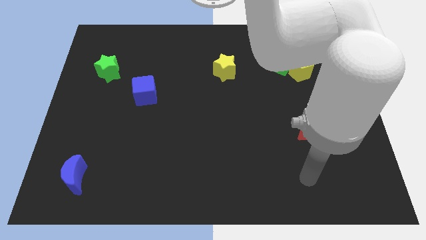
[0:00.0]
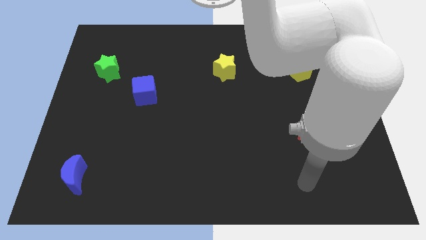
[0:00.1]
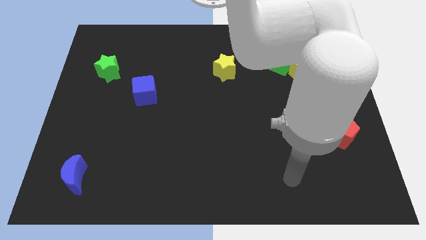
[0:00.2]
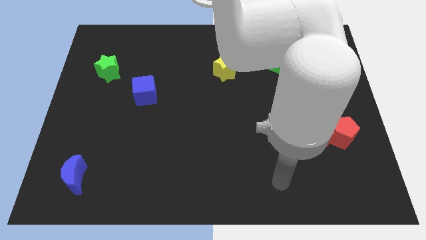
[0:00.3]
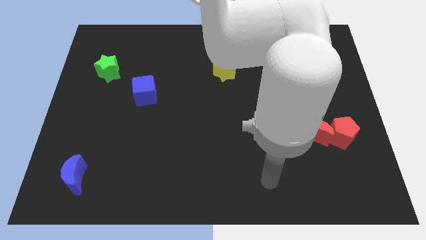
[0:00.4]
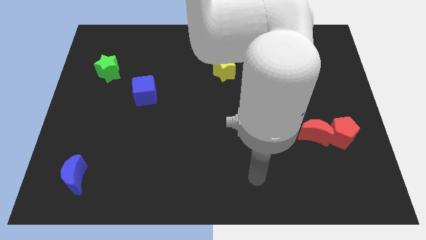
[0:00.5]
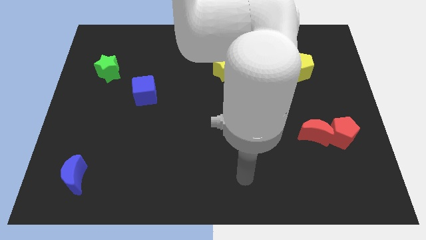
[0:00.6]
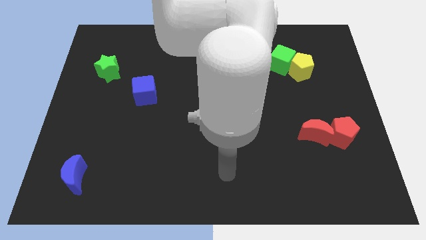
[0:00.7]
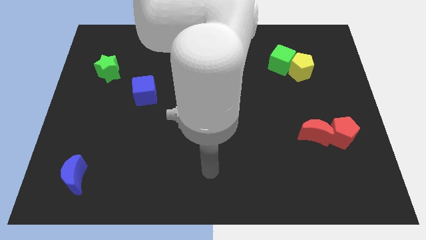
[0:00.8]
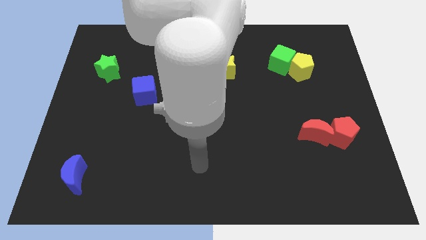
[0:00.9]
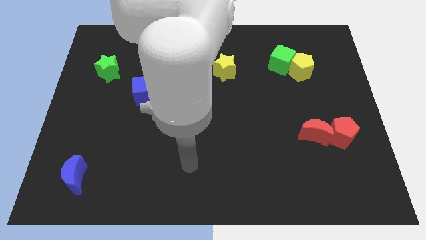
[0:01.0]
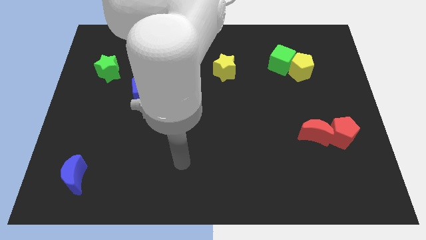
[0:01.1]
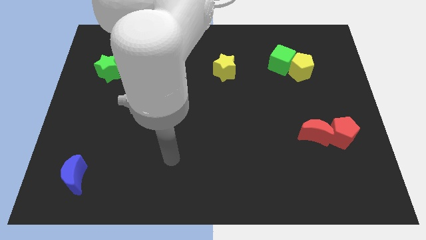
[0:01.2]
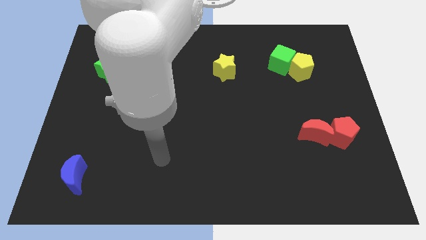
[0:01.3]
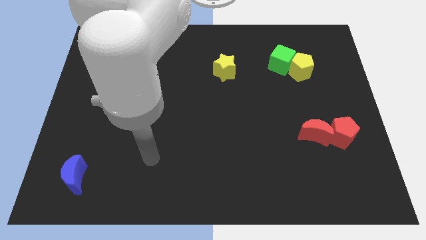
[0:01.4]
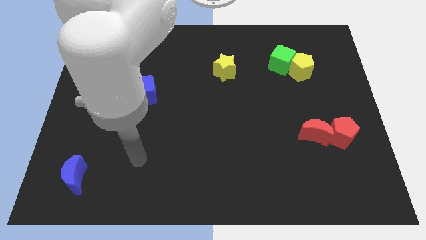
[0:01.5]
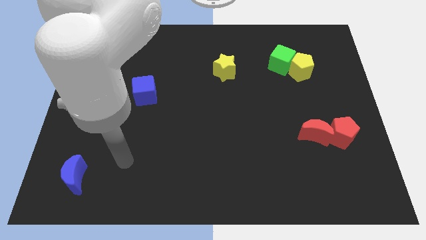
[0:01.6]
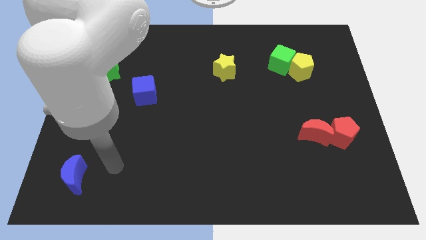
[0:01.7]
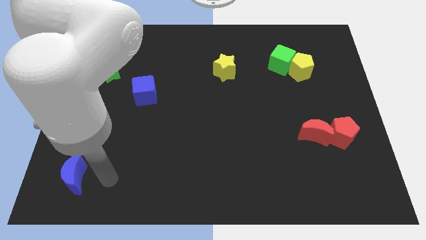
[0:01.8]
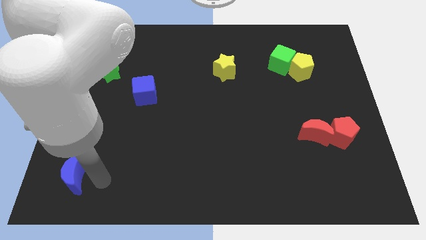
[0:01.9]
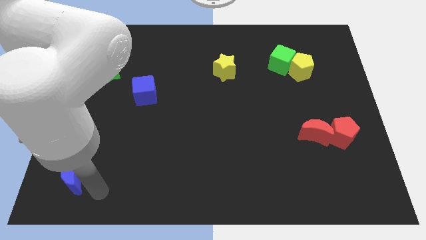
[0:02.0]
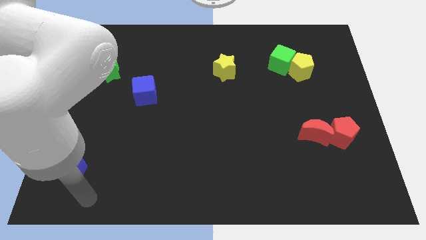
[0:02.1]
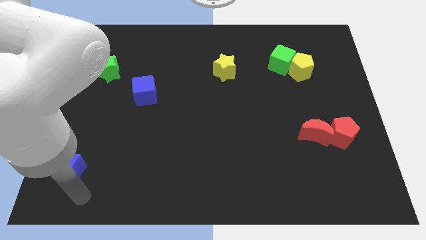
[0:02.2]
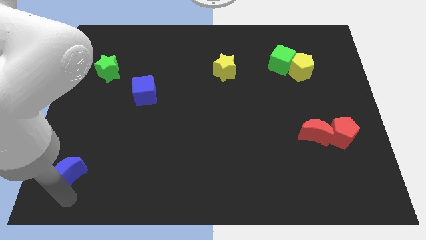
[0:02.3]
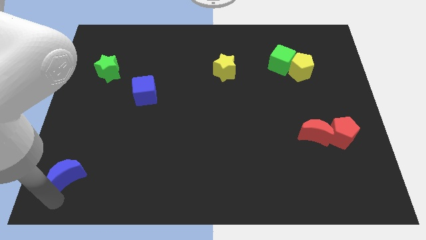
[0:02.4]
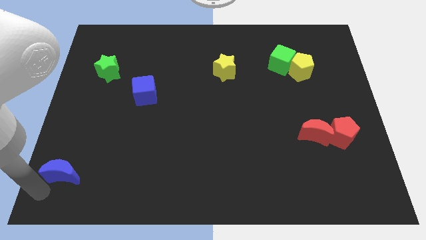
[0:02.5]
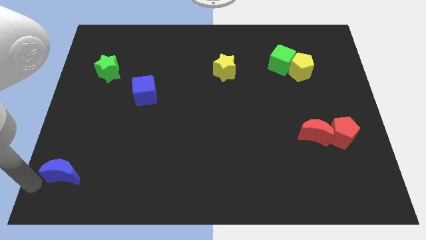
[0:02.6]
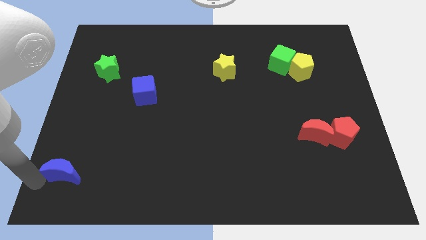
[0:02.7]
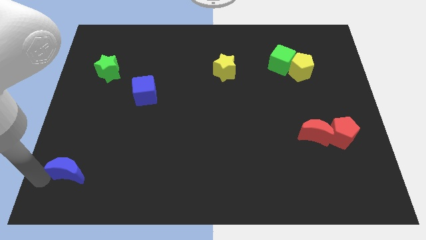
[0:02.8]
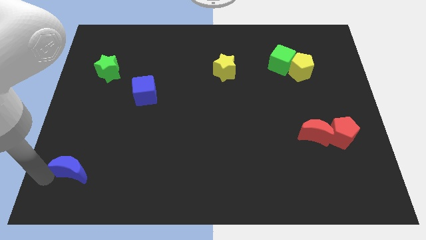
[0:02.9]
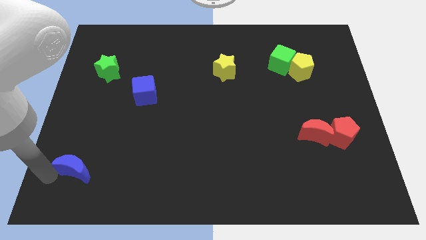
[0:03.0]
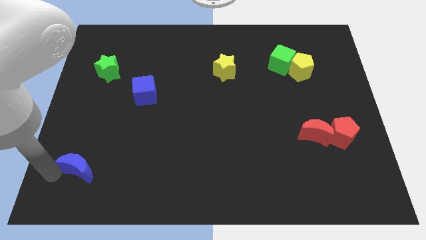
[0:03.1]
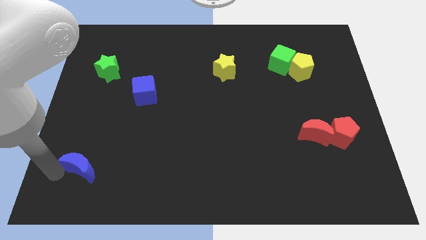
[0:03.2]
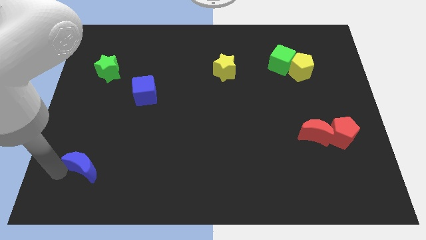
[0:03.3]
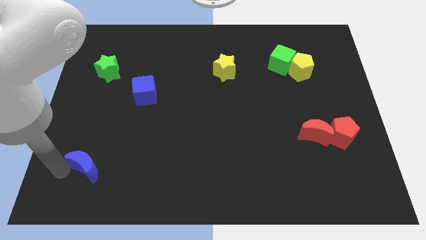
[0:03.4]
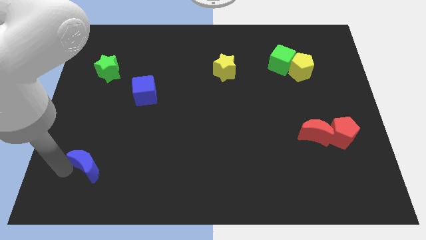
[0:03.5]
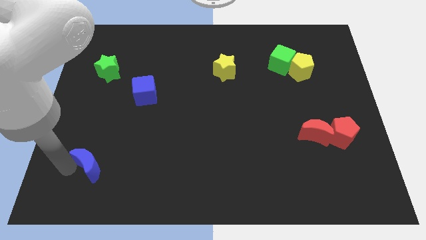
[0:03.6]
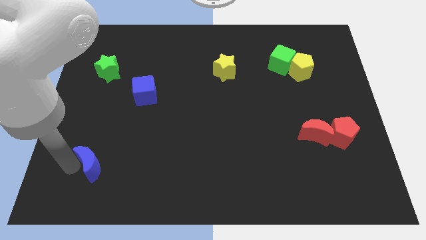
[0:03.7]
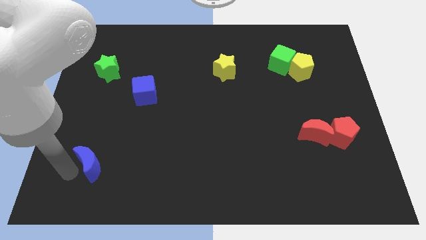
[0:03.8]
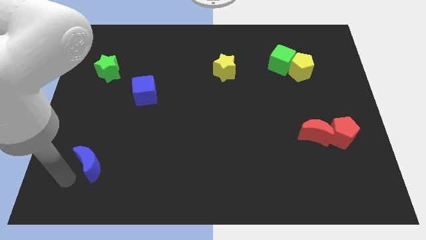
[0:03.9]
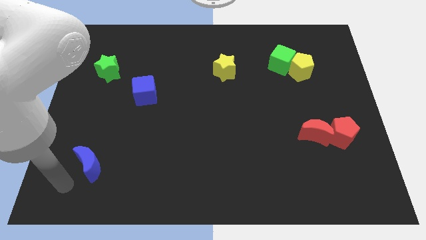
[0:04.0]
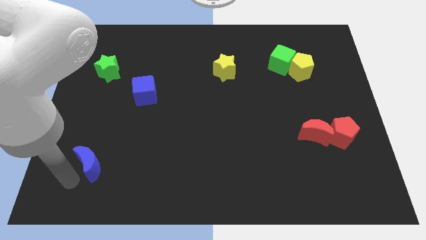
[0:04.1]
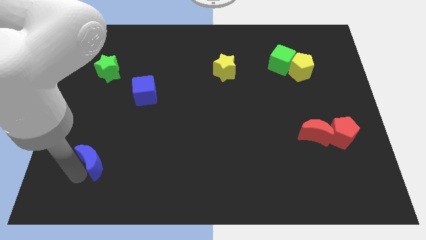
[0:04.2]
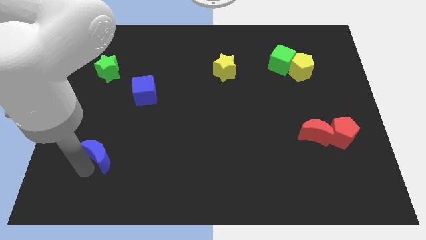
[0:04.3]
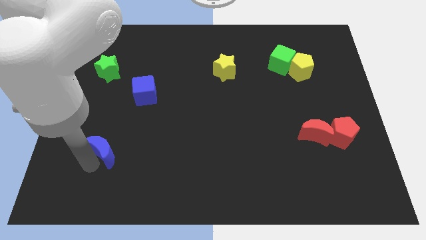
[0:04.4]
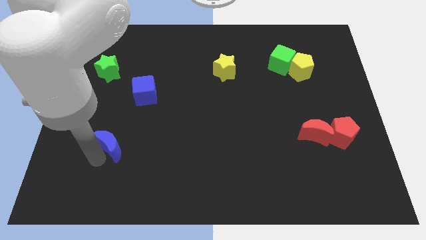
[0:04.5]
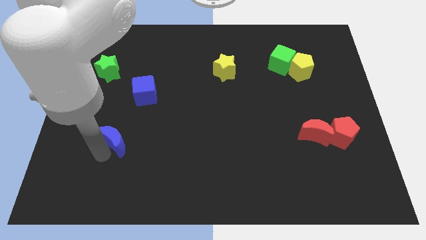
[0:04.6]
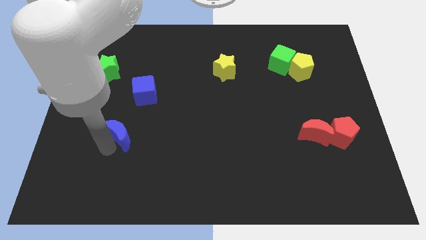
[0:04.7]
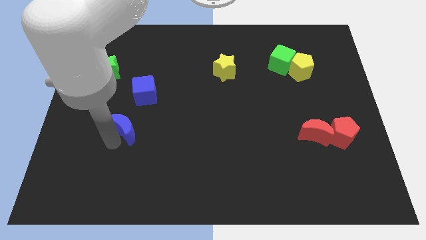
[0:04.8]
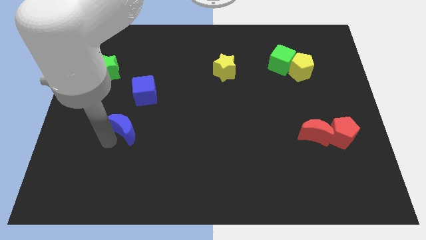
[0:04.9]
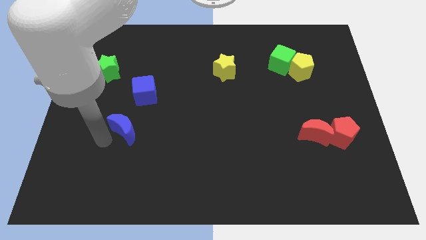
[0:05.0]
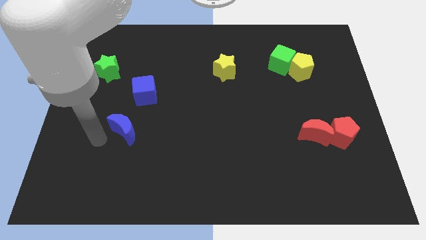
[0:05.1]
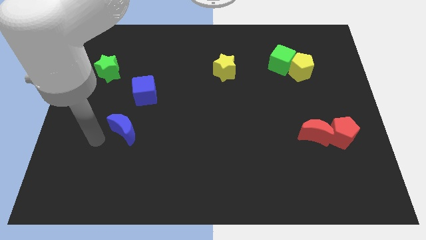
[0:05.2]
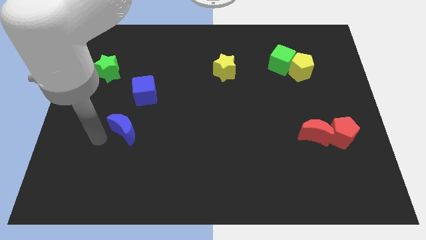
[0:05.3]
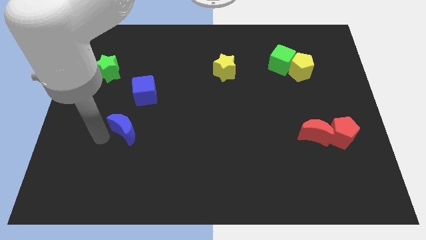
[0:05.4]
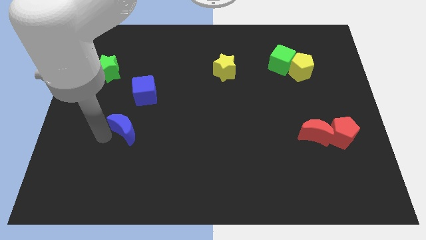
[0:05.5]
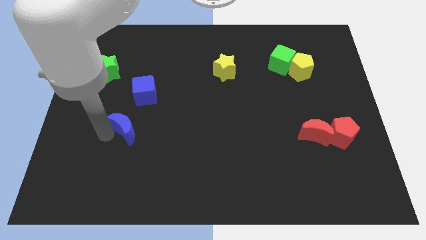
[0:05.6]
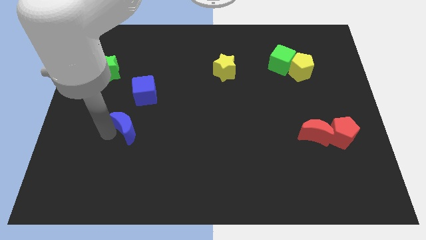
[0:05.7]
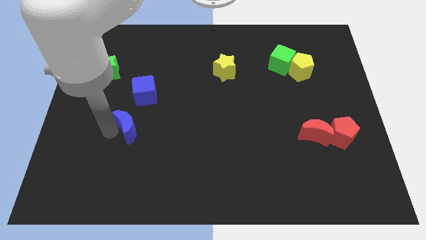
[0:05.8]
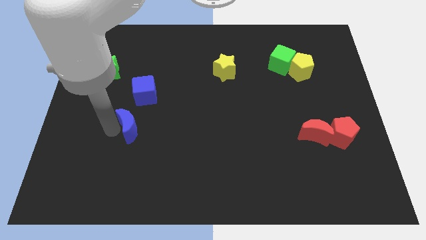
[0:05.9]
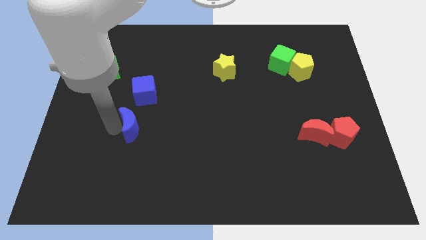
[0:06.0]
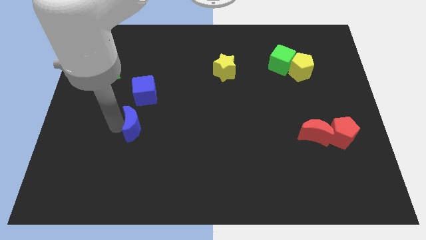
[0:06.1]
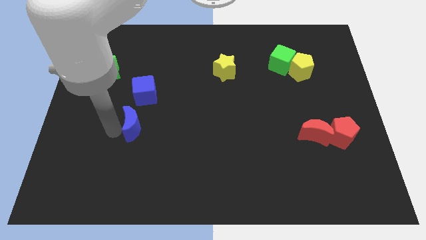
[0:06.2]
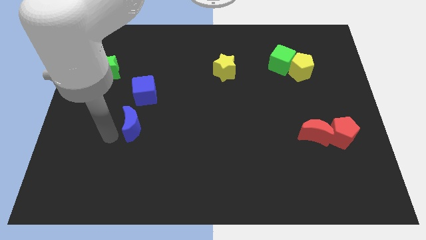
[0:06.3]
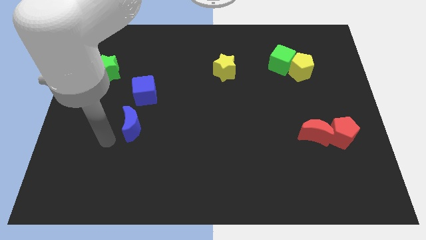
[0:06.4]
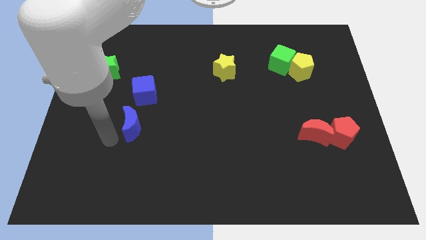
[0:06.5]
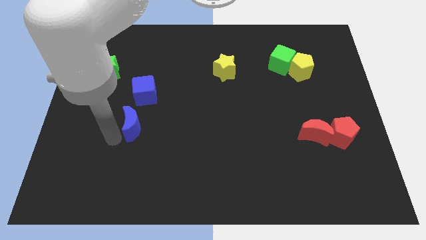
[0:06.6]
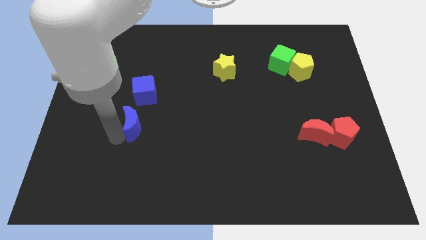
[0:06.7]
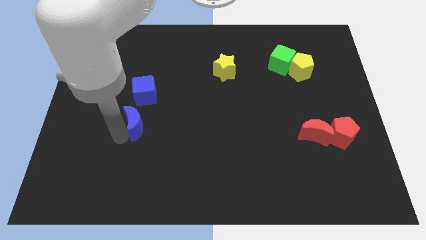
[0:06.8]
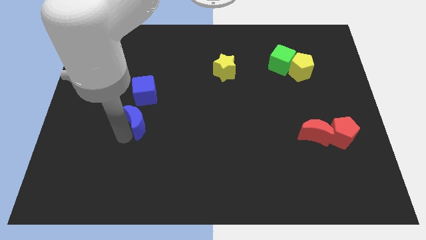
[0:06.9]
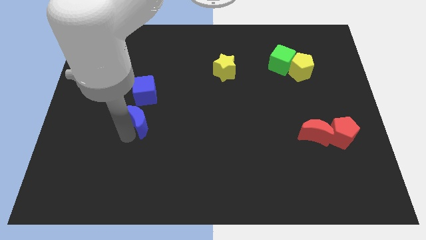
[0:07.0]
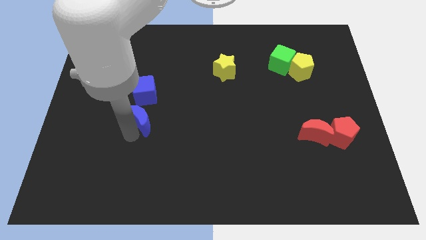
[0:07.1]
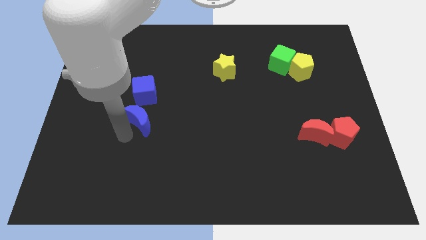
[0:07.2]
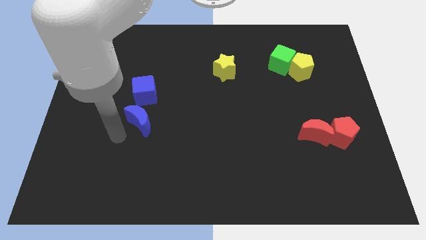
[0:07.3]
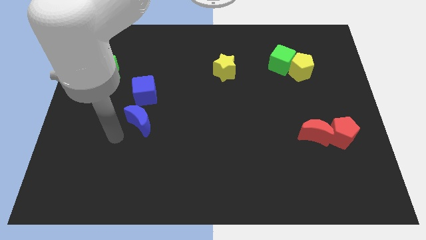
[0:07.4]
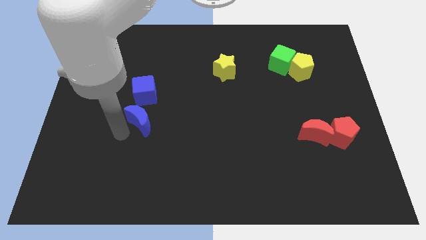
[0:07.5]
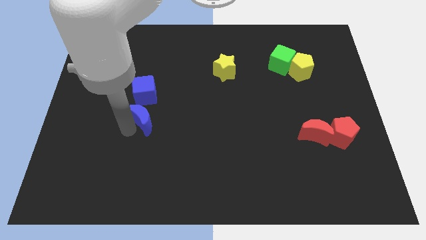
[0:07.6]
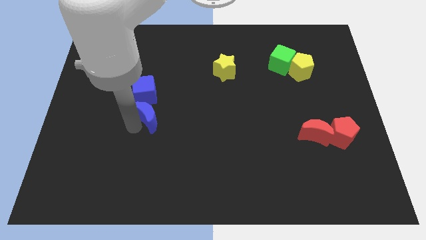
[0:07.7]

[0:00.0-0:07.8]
push the blue moon up and then right
